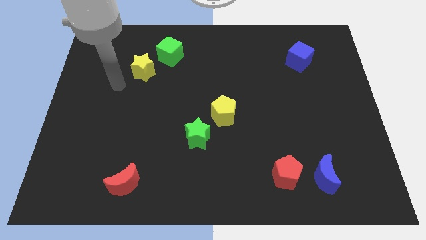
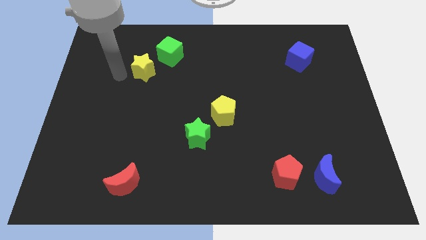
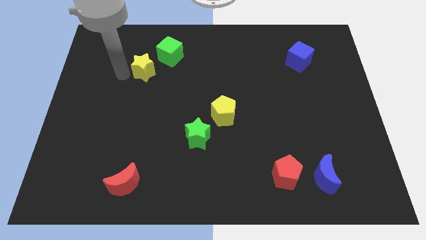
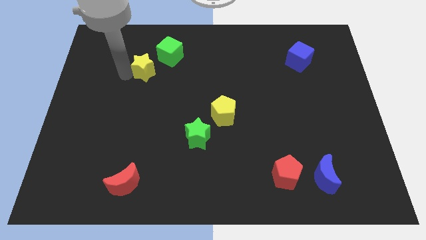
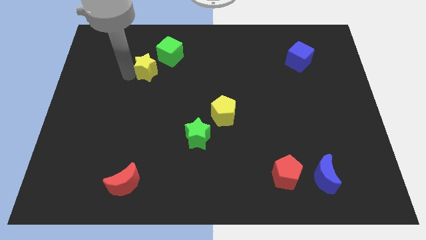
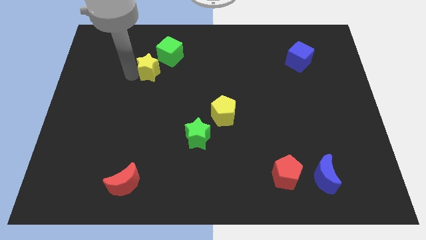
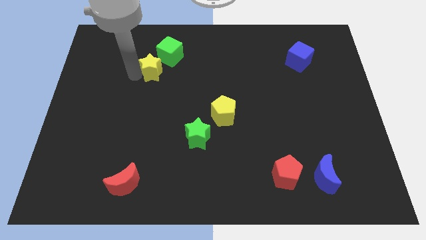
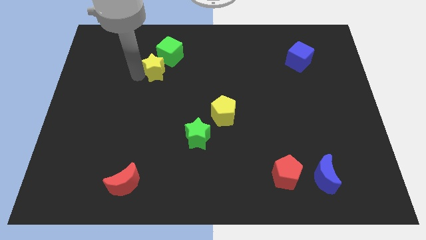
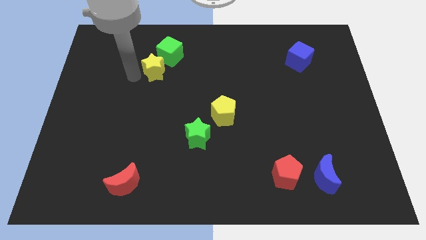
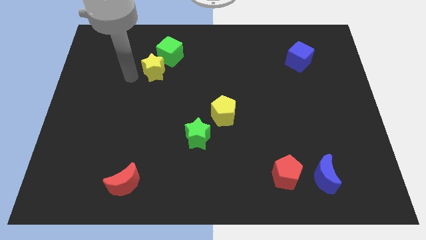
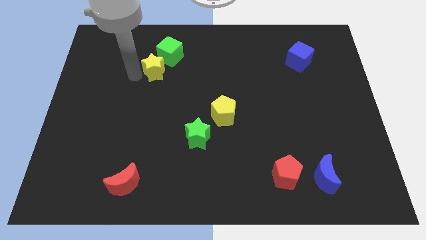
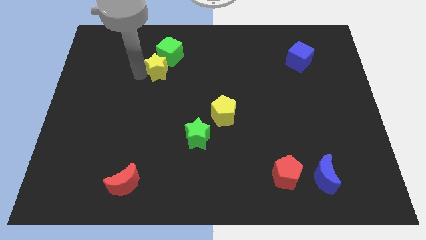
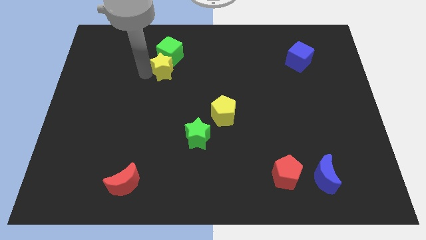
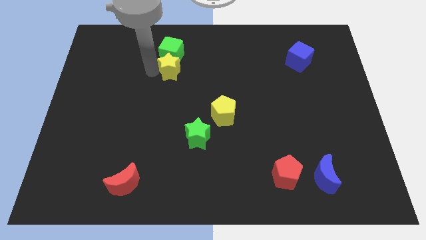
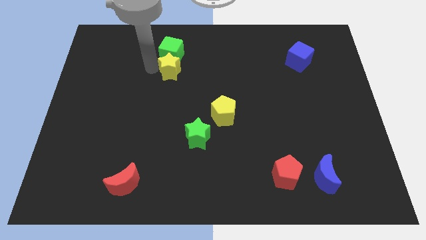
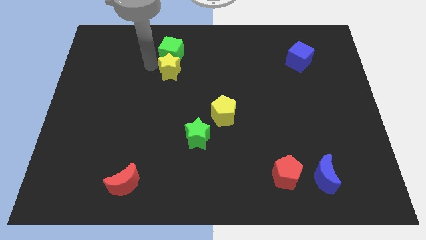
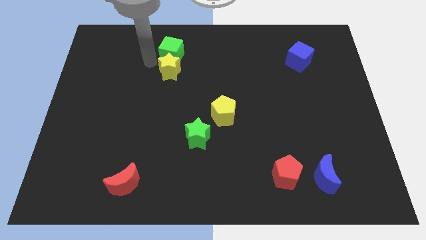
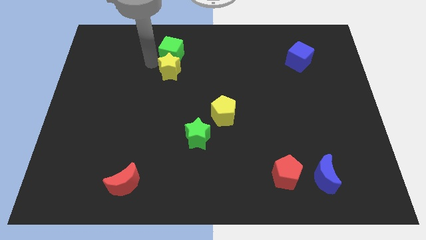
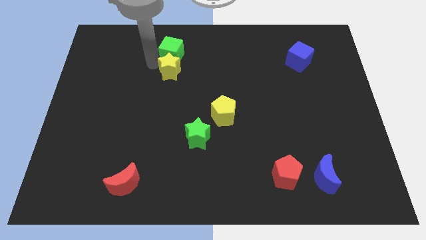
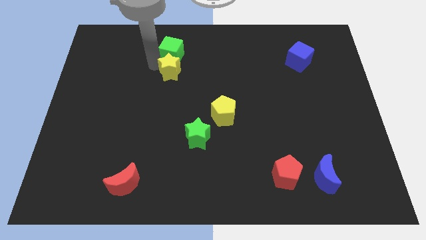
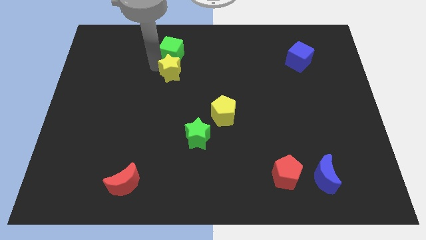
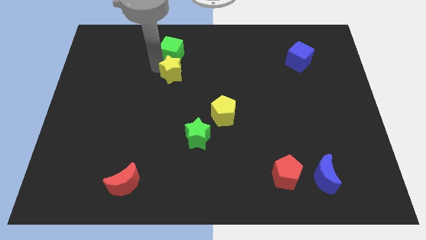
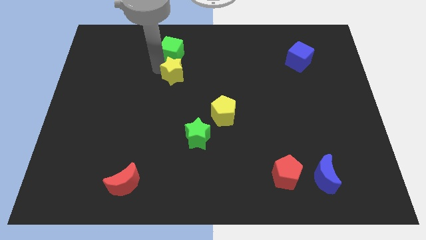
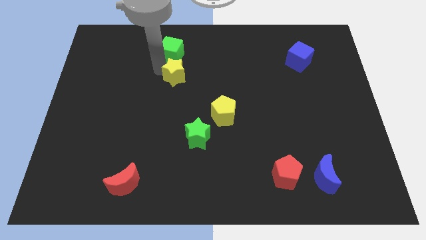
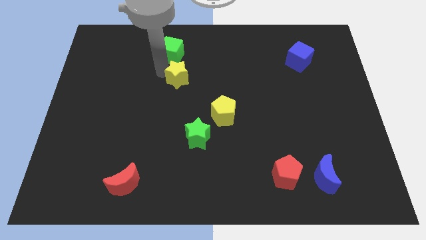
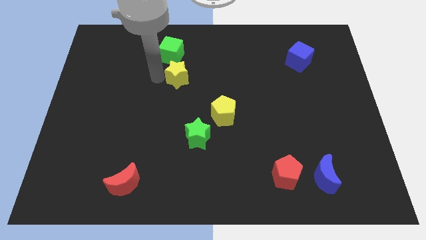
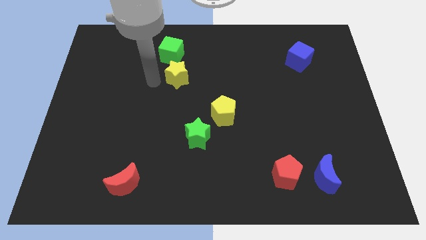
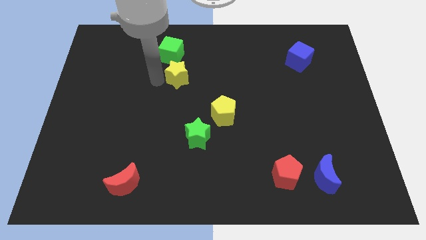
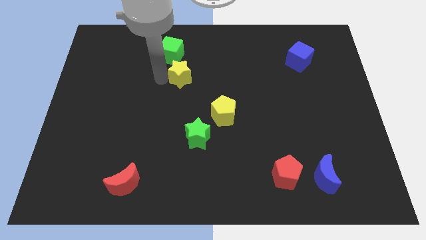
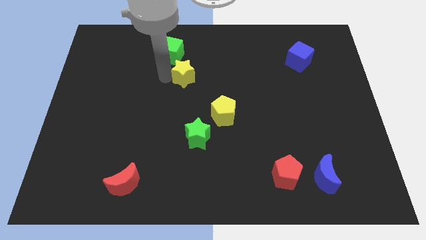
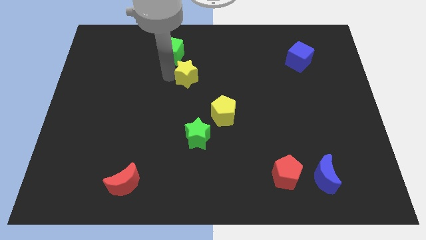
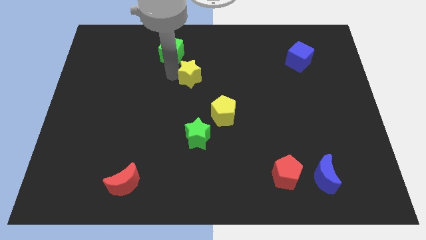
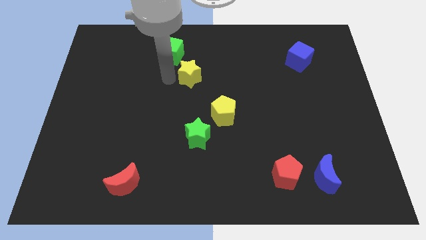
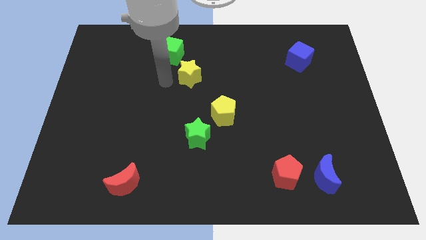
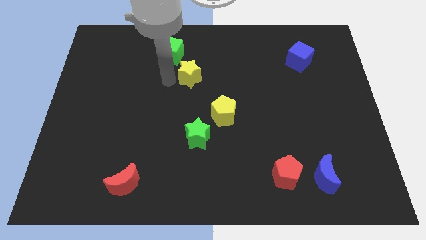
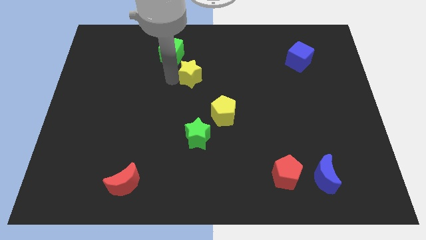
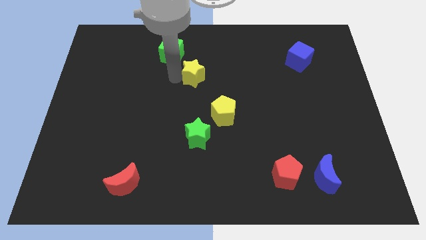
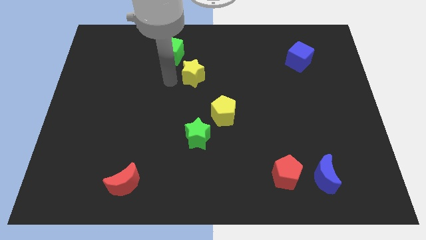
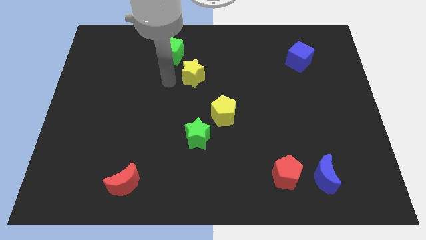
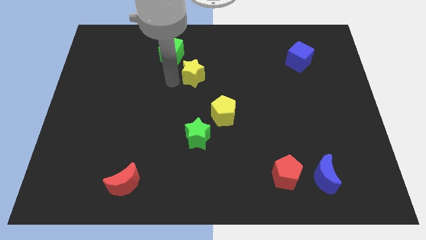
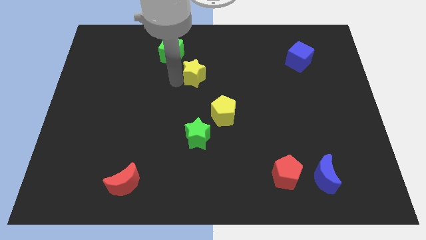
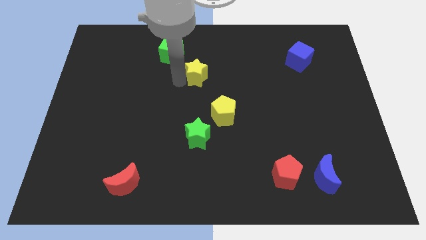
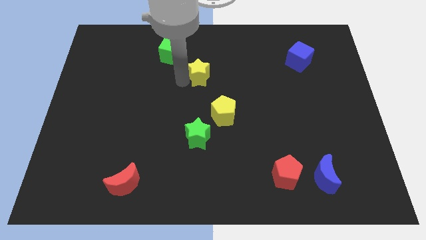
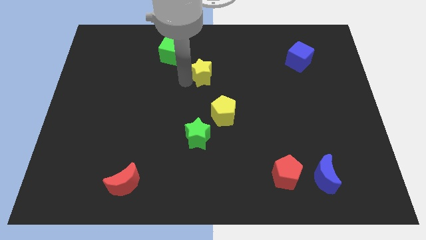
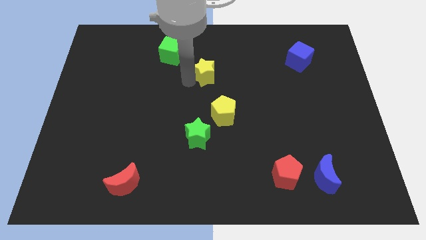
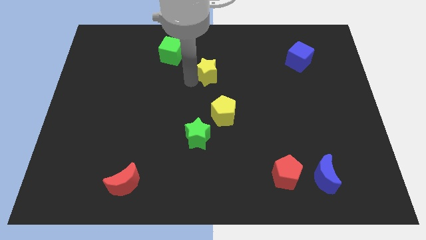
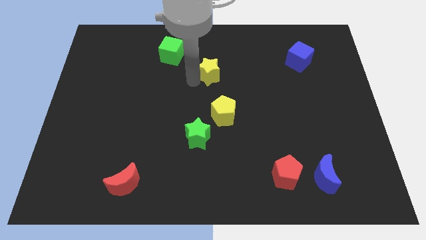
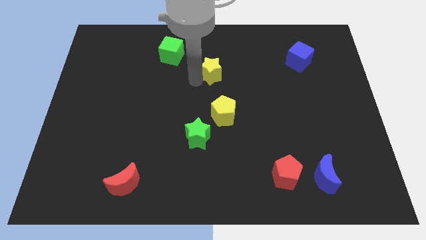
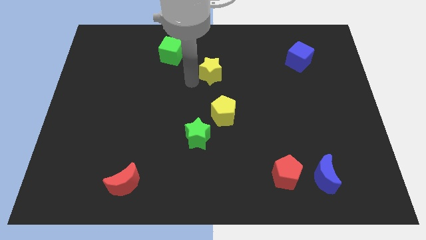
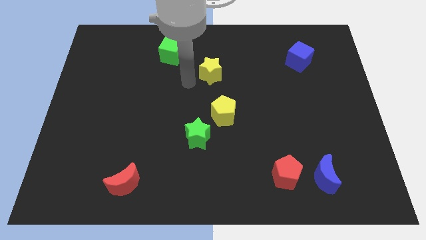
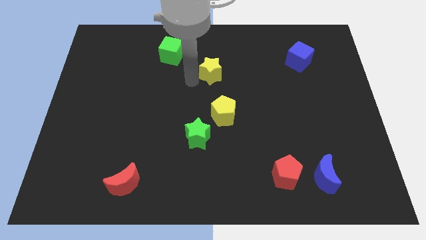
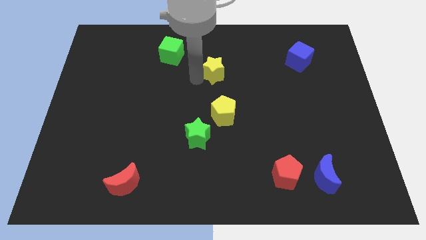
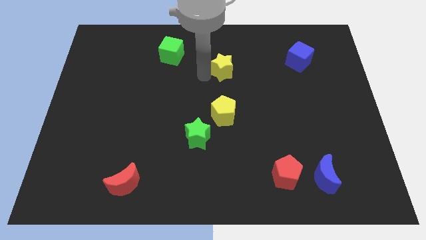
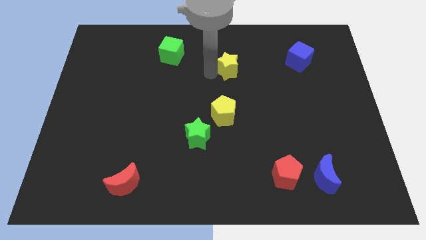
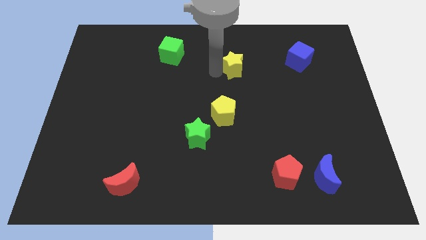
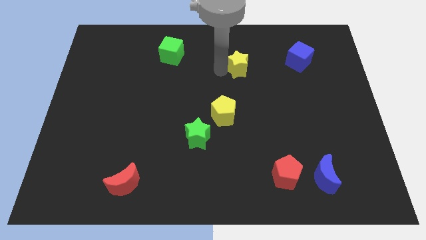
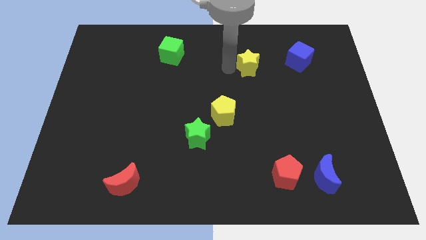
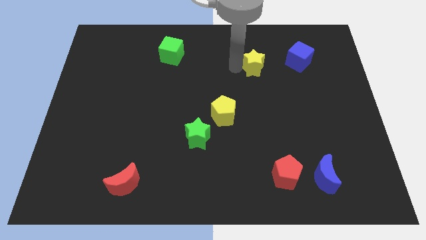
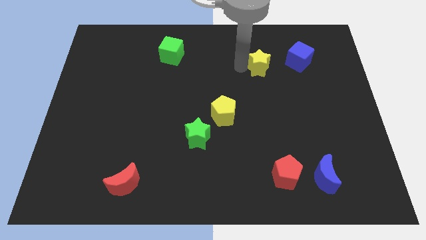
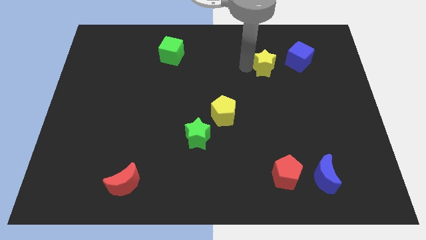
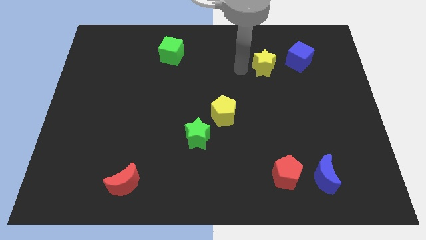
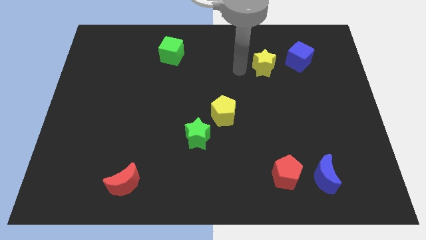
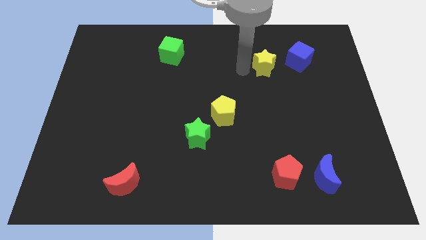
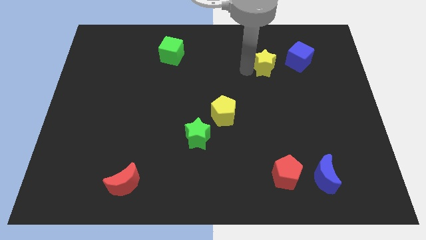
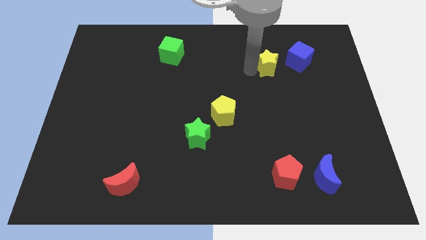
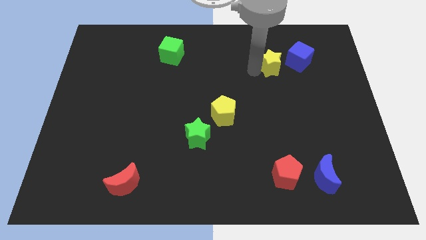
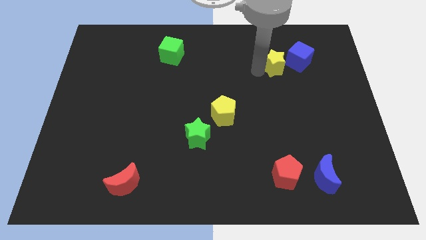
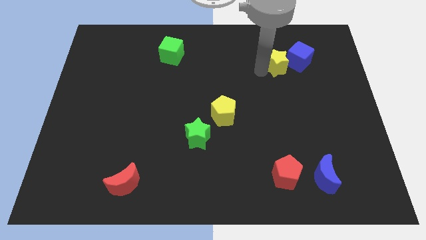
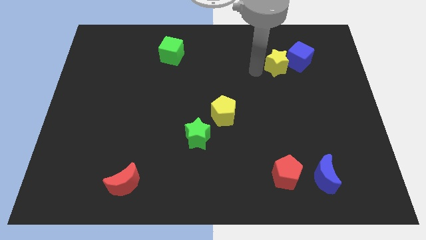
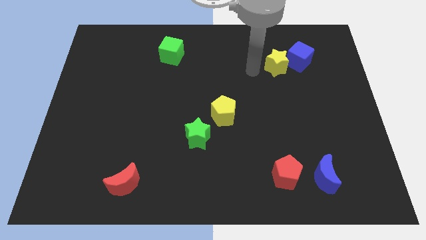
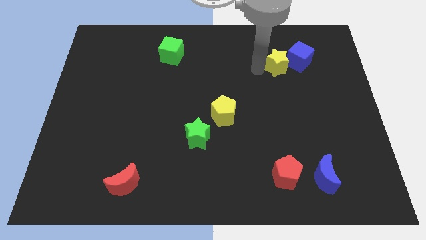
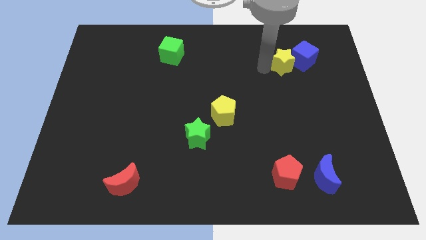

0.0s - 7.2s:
push the yellow star to the blue cube

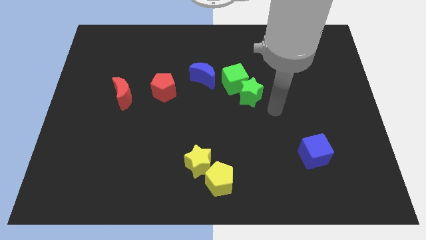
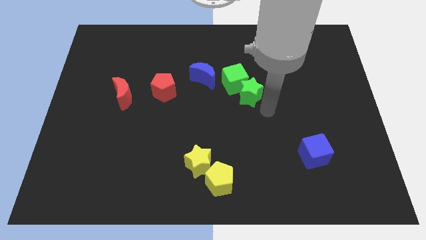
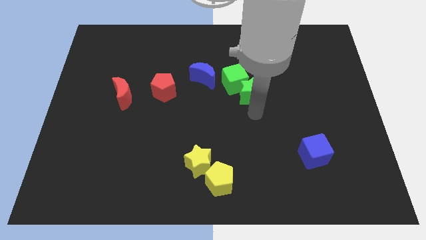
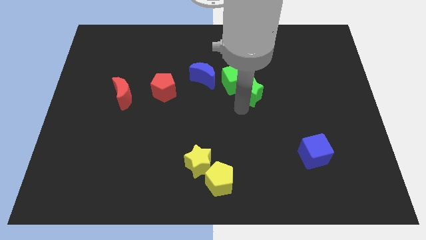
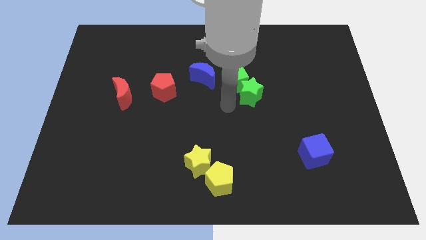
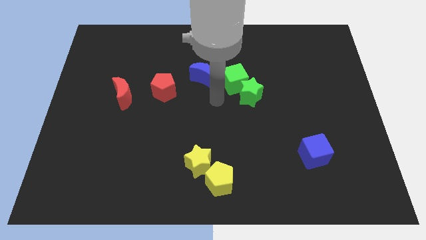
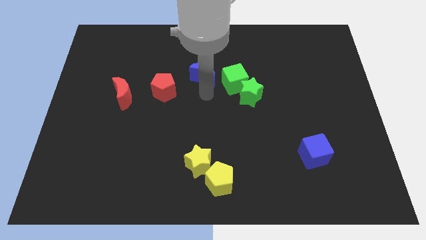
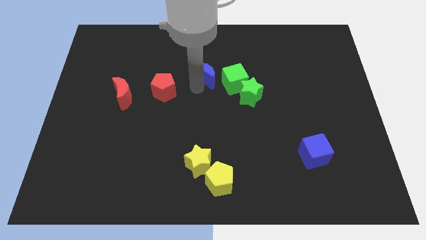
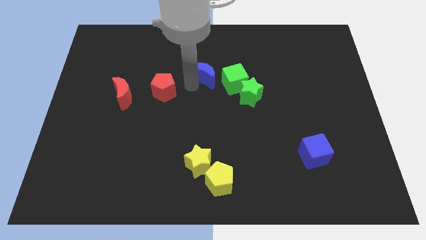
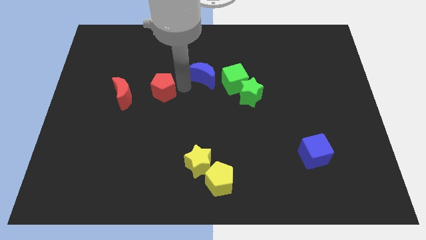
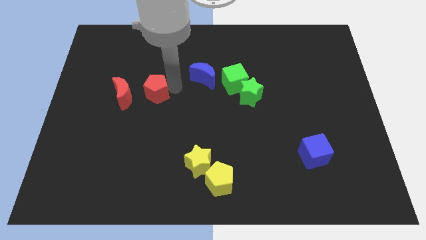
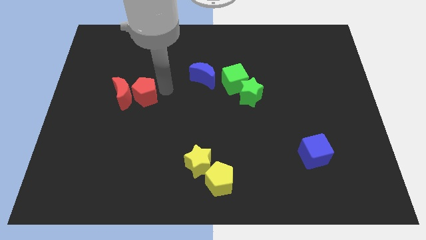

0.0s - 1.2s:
put the red pentagon towards the red moon
